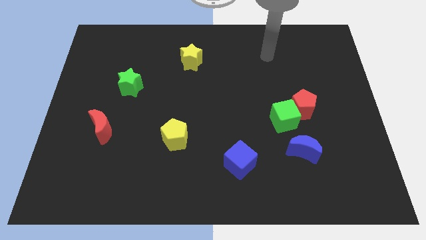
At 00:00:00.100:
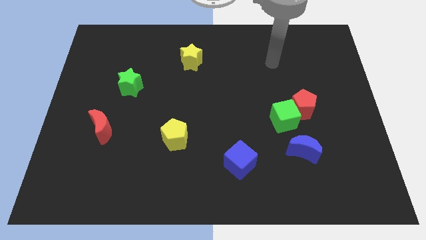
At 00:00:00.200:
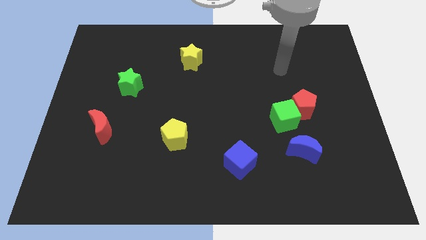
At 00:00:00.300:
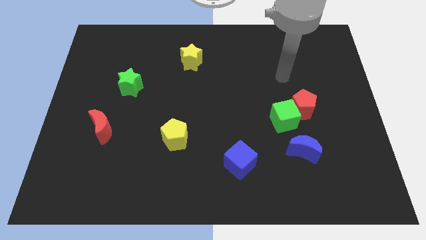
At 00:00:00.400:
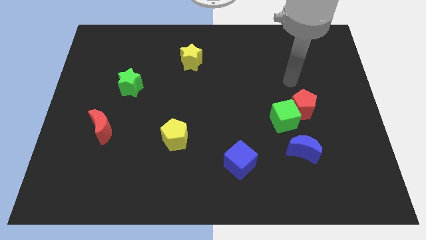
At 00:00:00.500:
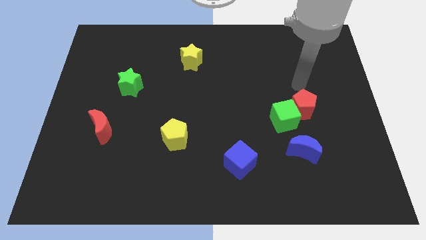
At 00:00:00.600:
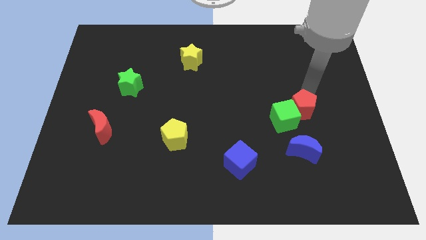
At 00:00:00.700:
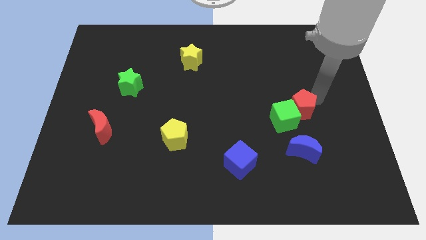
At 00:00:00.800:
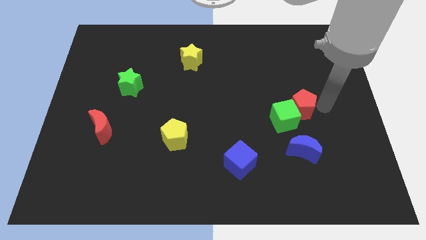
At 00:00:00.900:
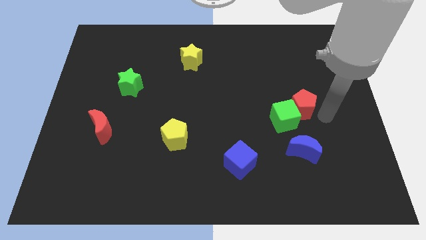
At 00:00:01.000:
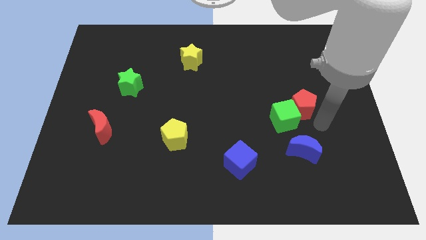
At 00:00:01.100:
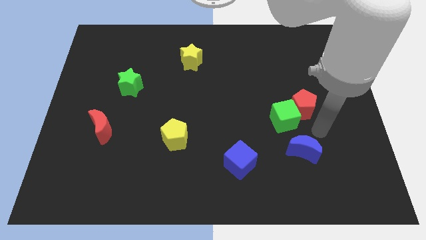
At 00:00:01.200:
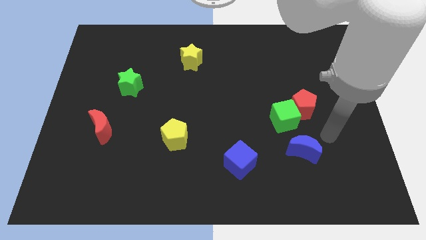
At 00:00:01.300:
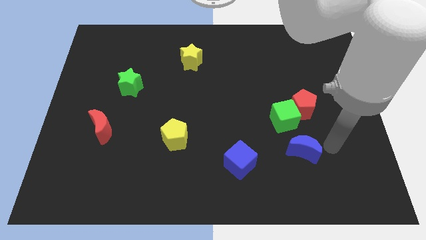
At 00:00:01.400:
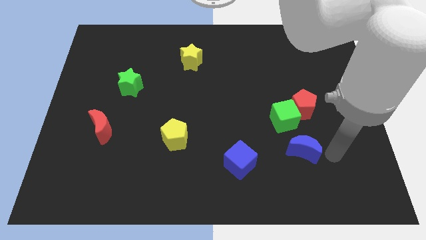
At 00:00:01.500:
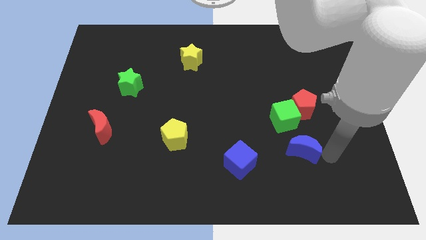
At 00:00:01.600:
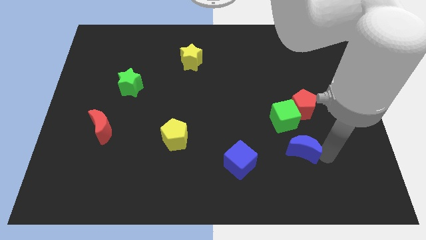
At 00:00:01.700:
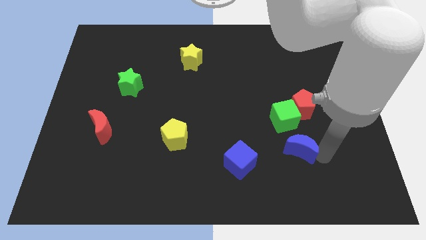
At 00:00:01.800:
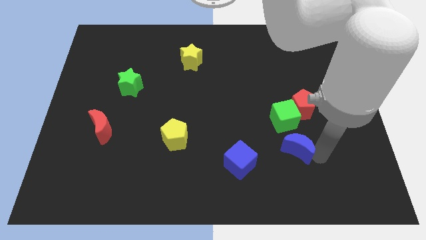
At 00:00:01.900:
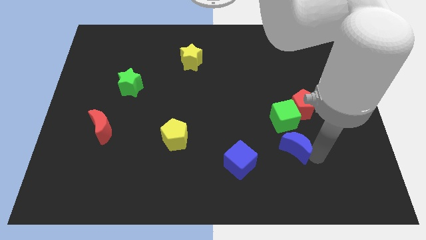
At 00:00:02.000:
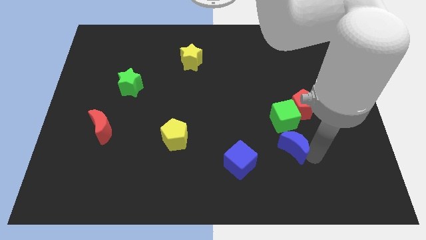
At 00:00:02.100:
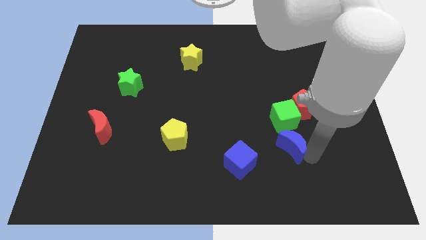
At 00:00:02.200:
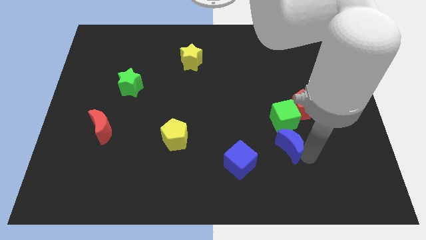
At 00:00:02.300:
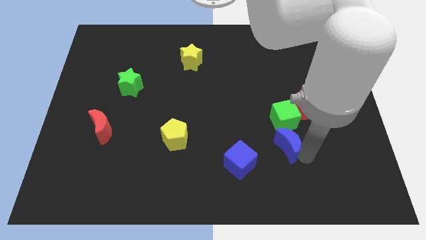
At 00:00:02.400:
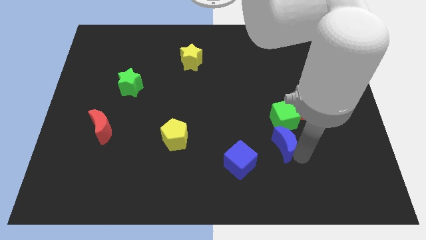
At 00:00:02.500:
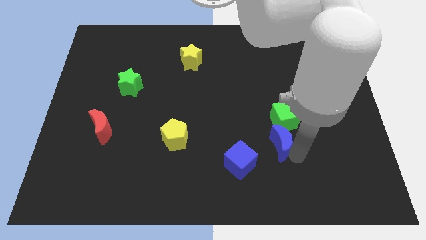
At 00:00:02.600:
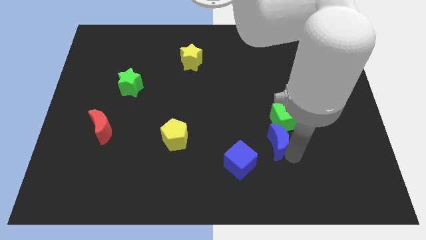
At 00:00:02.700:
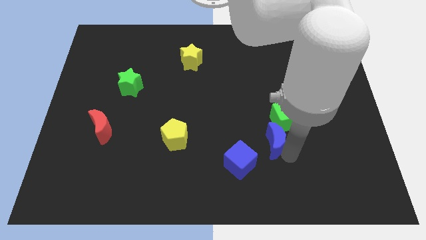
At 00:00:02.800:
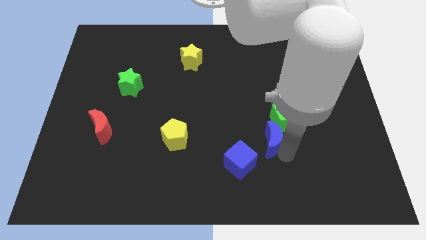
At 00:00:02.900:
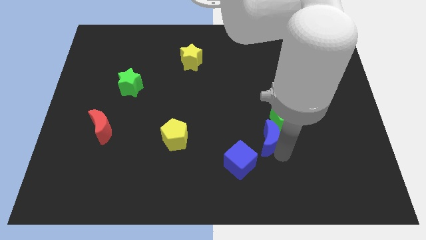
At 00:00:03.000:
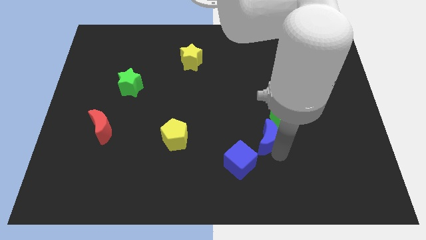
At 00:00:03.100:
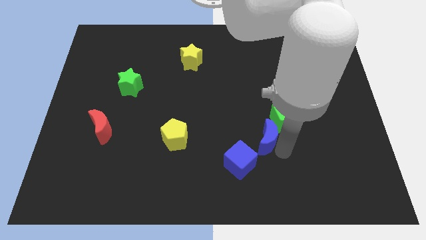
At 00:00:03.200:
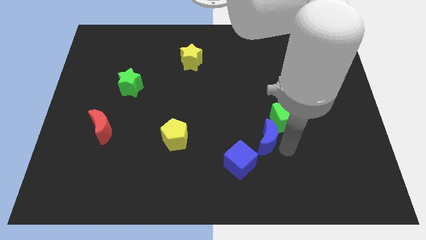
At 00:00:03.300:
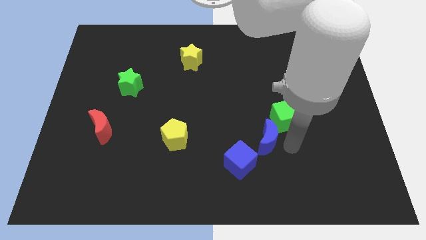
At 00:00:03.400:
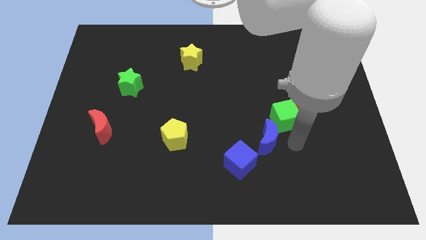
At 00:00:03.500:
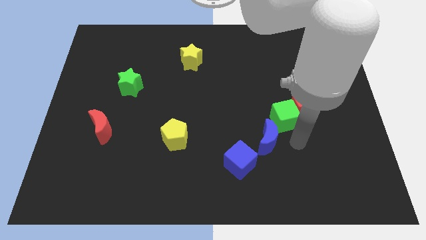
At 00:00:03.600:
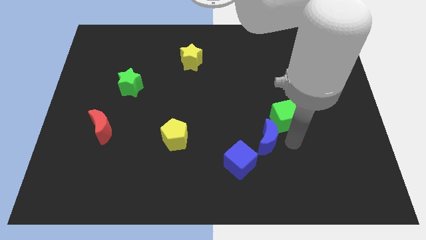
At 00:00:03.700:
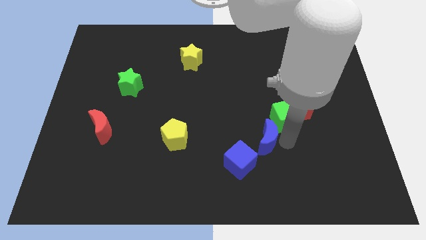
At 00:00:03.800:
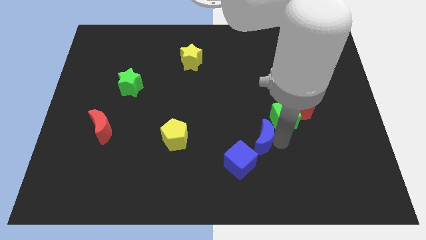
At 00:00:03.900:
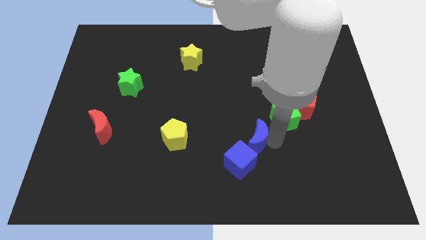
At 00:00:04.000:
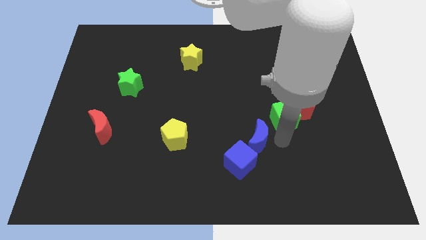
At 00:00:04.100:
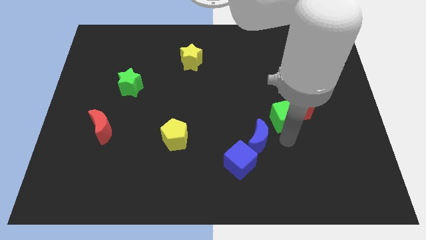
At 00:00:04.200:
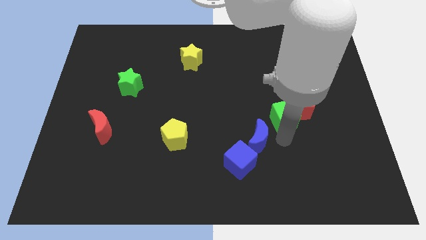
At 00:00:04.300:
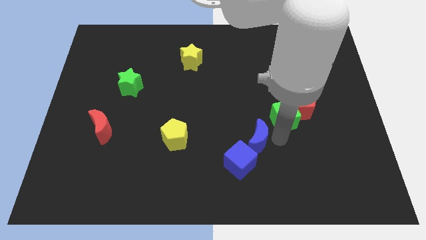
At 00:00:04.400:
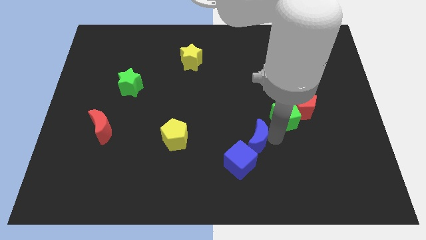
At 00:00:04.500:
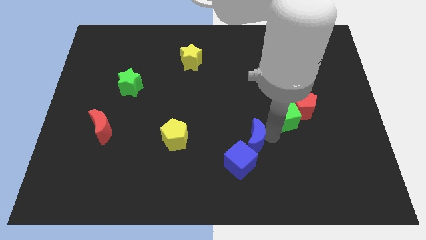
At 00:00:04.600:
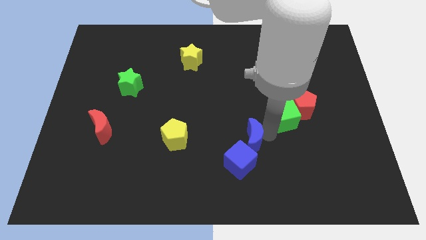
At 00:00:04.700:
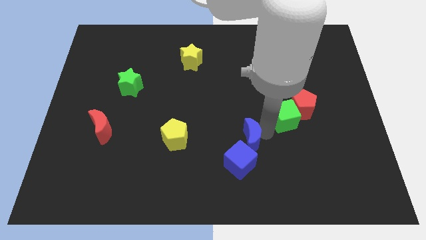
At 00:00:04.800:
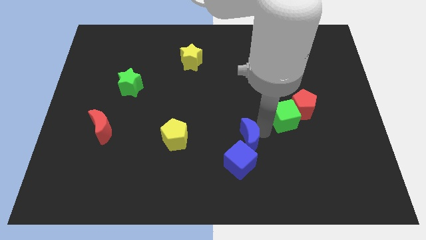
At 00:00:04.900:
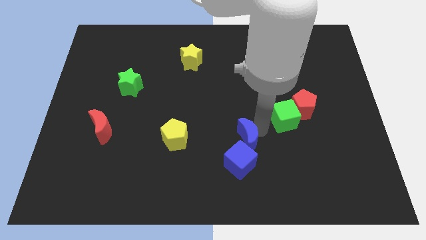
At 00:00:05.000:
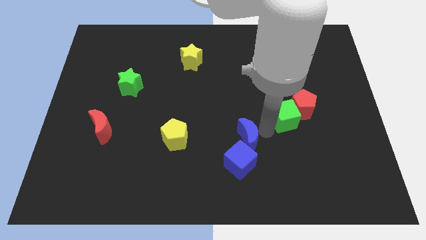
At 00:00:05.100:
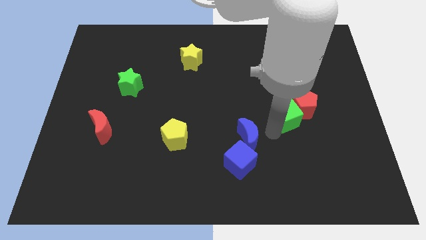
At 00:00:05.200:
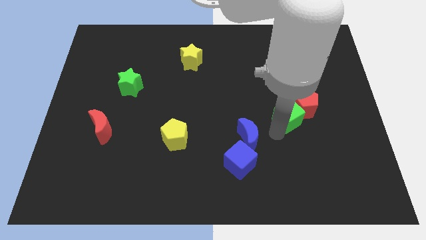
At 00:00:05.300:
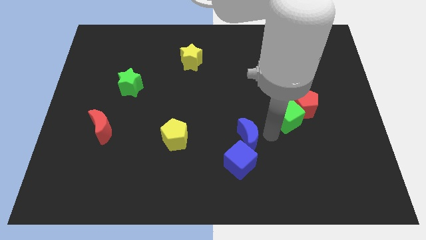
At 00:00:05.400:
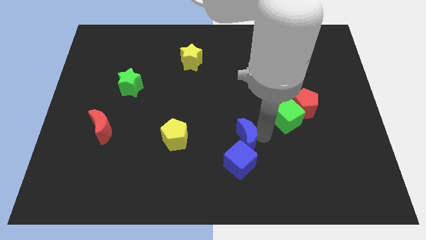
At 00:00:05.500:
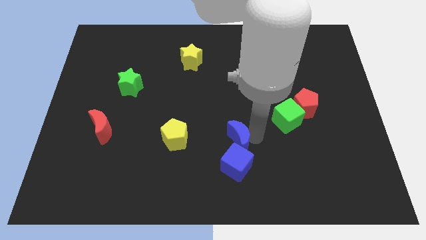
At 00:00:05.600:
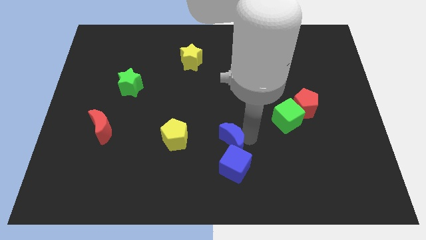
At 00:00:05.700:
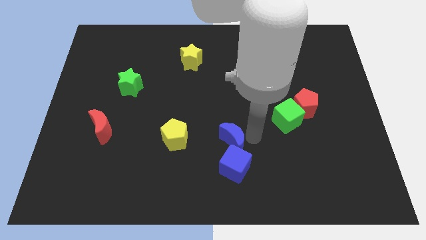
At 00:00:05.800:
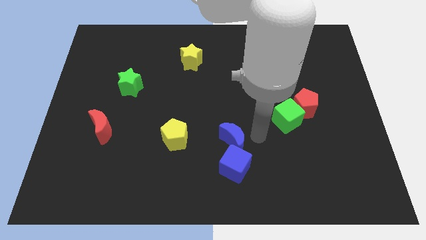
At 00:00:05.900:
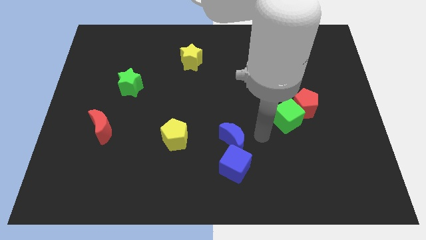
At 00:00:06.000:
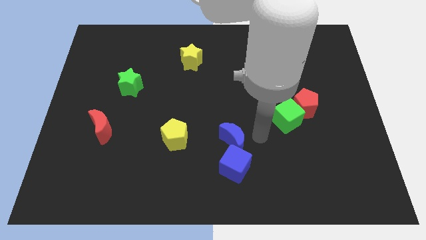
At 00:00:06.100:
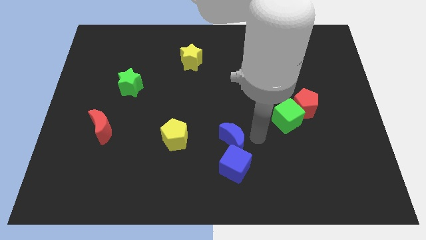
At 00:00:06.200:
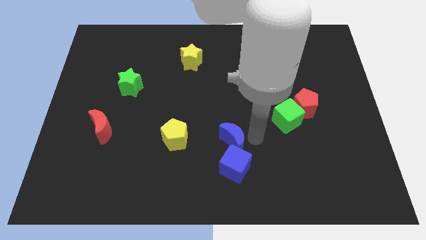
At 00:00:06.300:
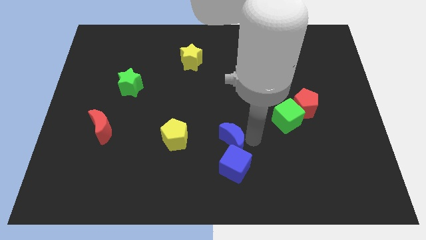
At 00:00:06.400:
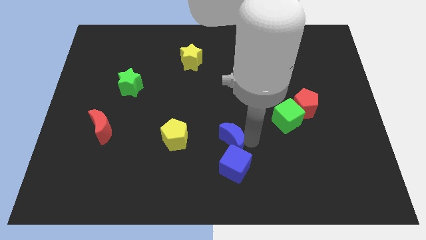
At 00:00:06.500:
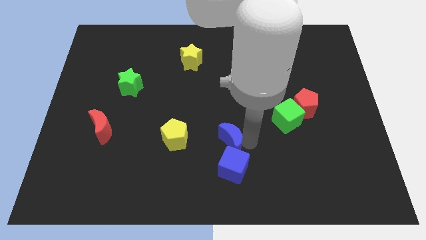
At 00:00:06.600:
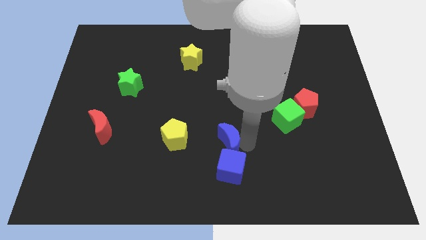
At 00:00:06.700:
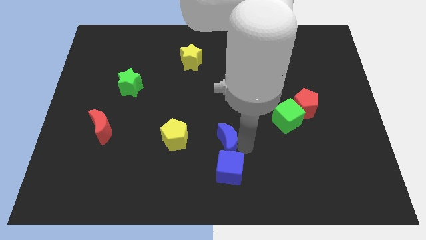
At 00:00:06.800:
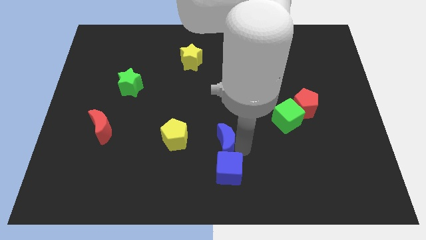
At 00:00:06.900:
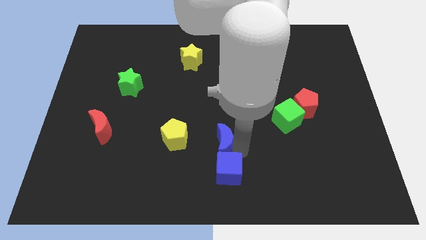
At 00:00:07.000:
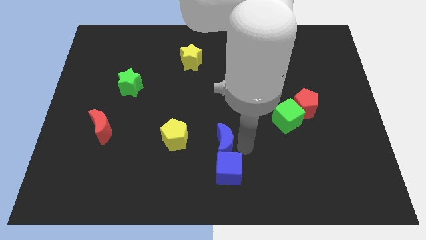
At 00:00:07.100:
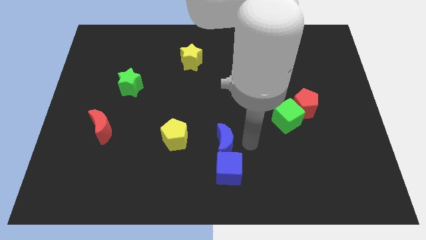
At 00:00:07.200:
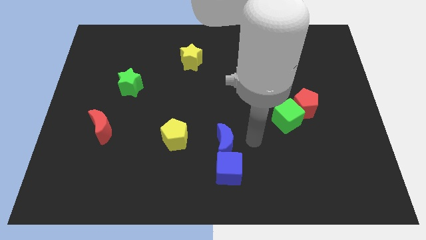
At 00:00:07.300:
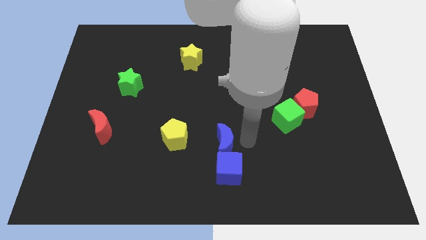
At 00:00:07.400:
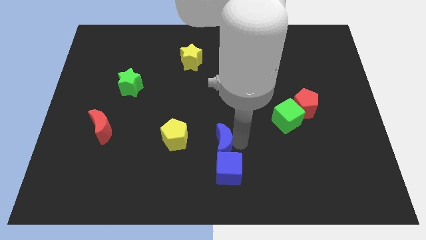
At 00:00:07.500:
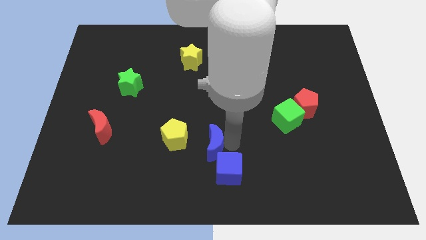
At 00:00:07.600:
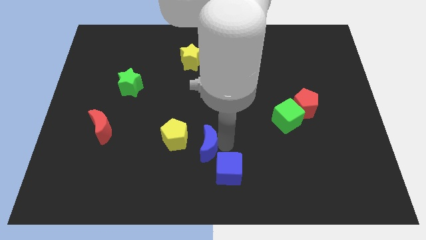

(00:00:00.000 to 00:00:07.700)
move the blue moon left

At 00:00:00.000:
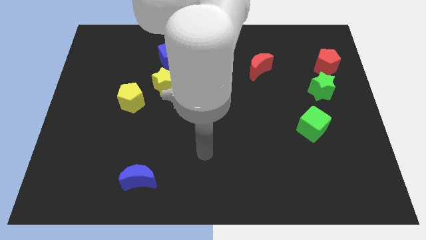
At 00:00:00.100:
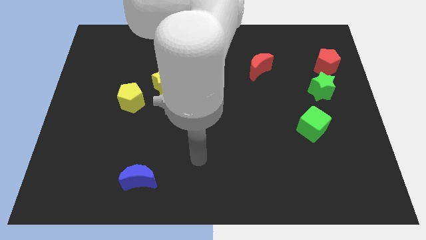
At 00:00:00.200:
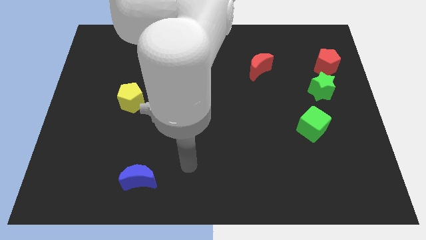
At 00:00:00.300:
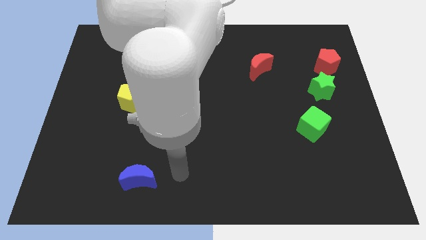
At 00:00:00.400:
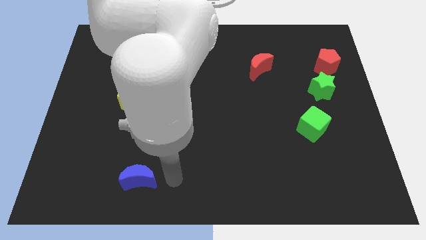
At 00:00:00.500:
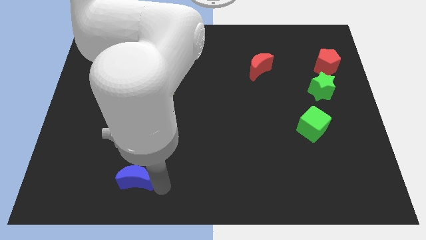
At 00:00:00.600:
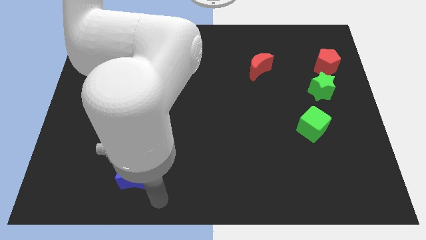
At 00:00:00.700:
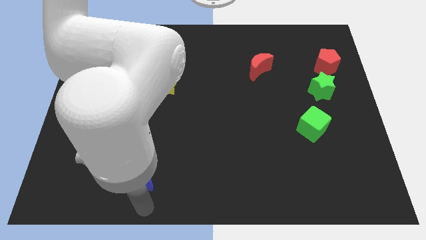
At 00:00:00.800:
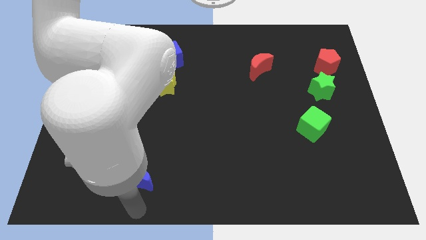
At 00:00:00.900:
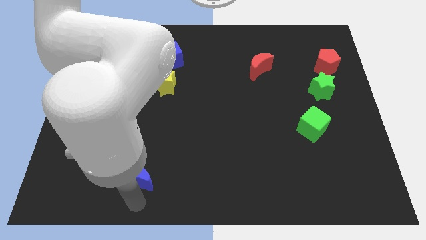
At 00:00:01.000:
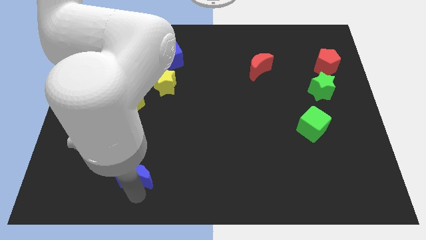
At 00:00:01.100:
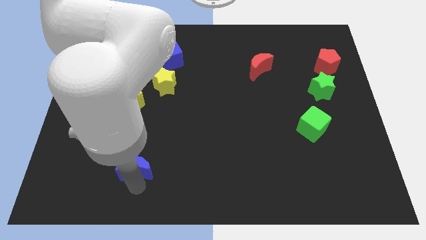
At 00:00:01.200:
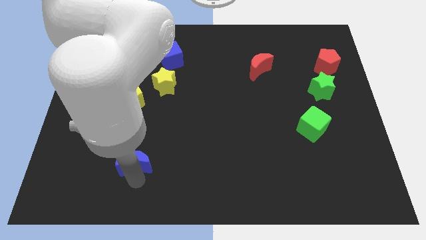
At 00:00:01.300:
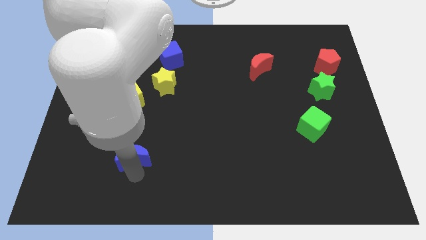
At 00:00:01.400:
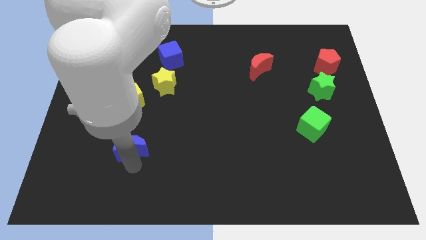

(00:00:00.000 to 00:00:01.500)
push the blue moon somewhat up
